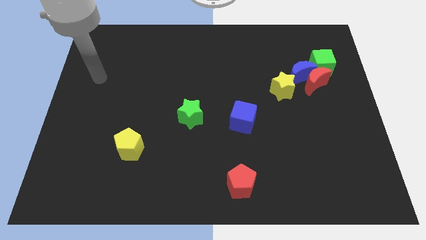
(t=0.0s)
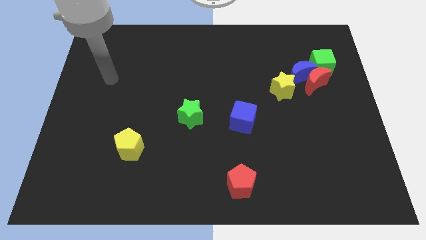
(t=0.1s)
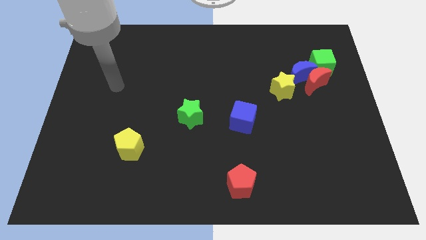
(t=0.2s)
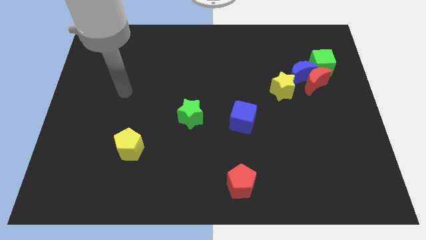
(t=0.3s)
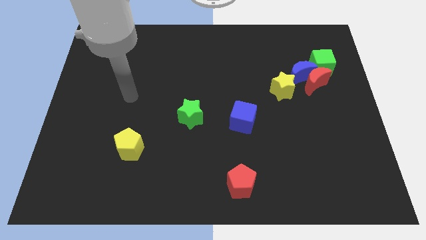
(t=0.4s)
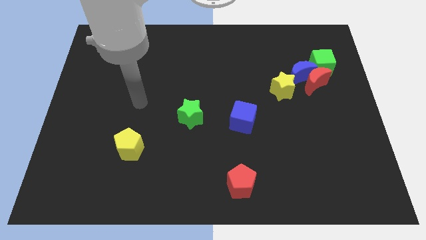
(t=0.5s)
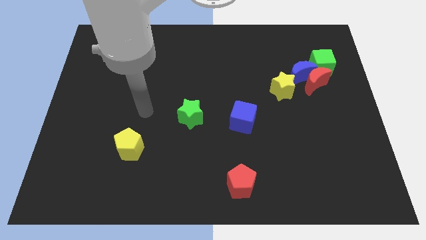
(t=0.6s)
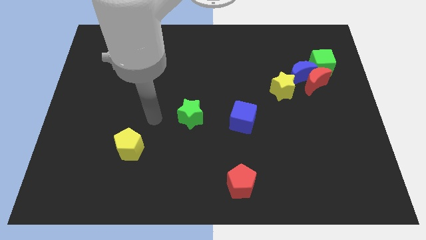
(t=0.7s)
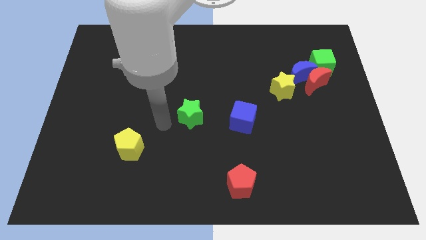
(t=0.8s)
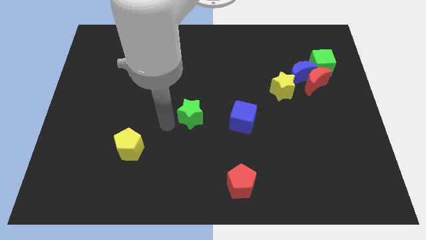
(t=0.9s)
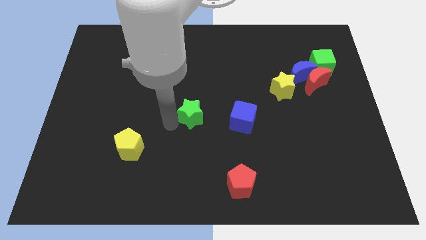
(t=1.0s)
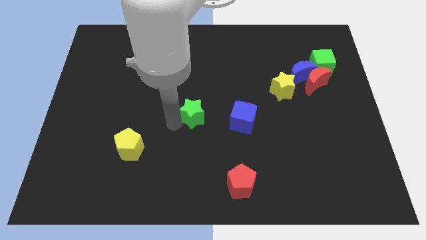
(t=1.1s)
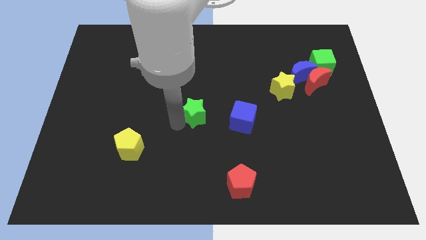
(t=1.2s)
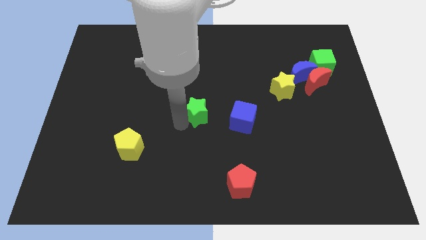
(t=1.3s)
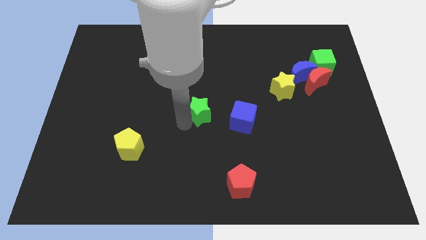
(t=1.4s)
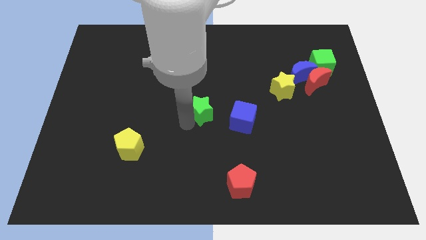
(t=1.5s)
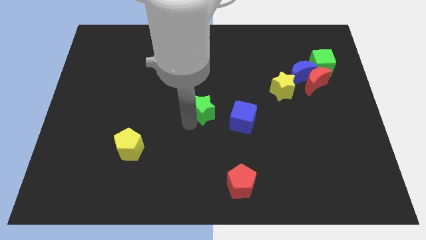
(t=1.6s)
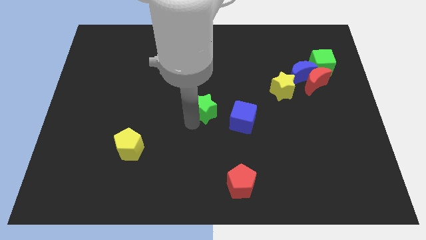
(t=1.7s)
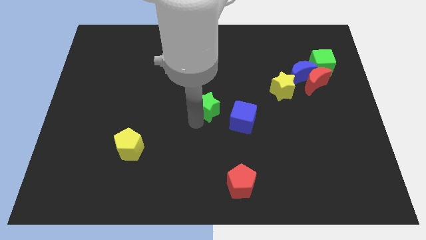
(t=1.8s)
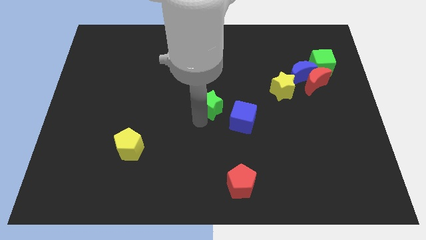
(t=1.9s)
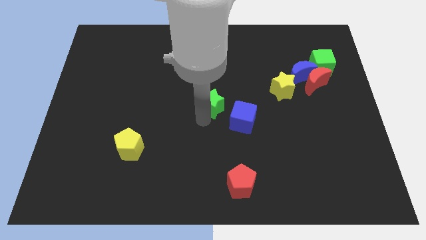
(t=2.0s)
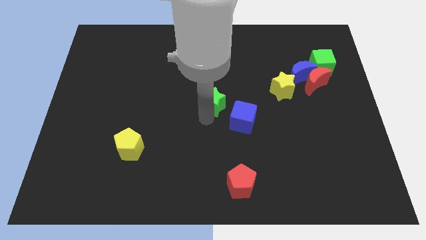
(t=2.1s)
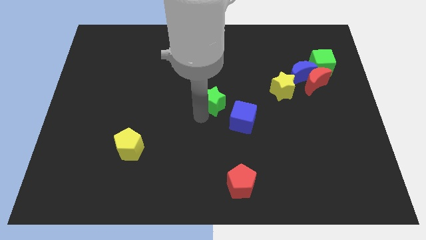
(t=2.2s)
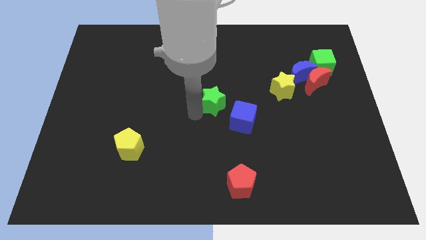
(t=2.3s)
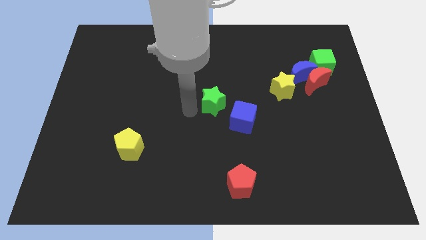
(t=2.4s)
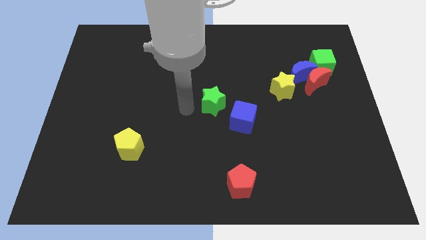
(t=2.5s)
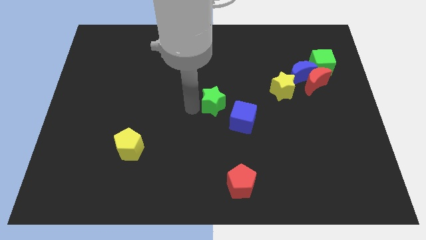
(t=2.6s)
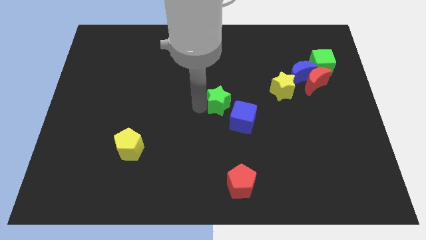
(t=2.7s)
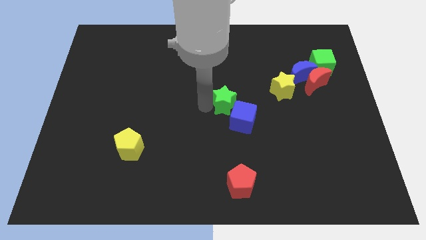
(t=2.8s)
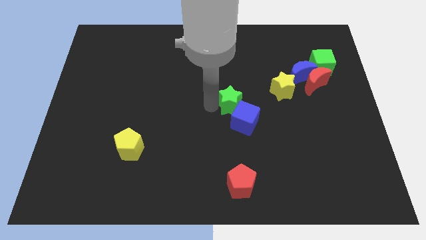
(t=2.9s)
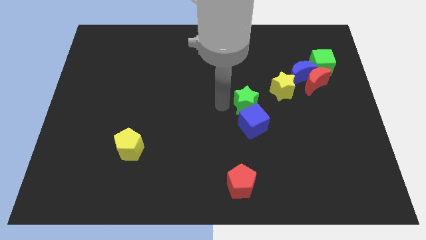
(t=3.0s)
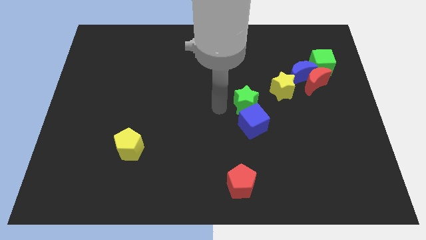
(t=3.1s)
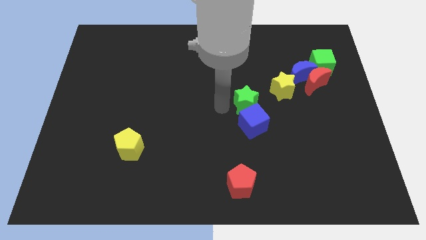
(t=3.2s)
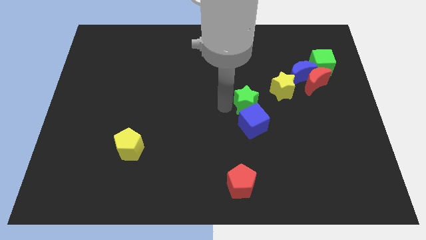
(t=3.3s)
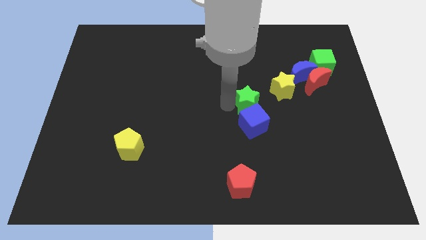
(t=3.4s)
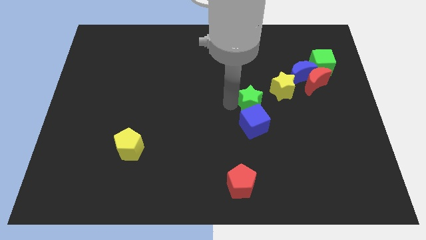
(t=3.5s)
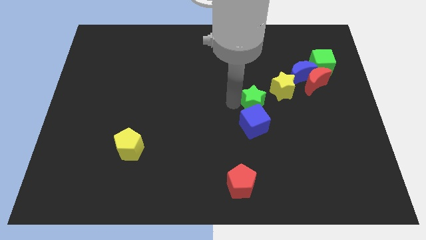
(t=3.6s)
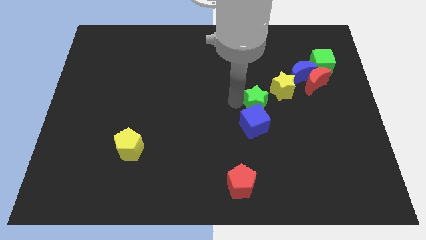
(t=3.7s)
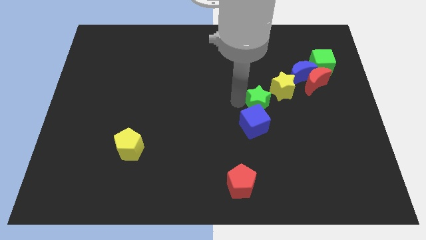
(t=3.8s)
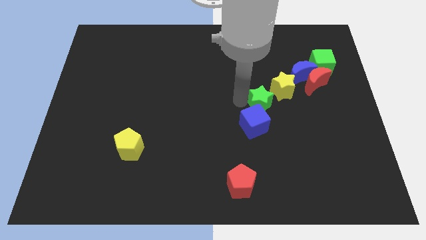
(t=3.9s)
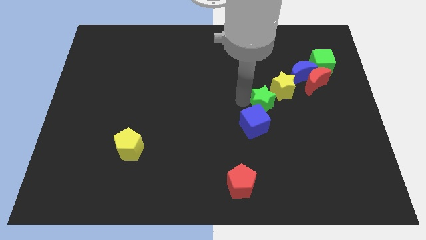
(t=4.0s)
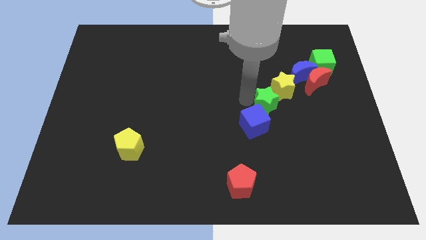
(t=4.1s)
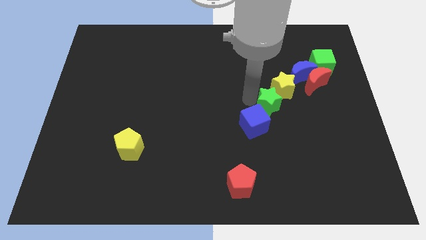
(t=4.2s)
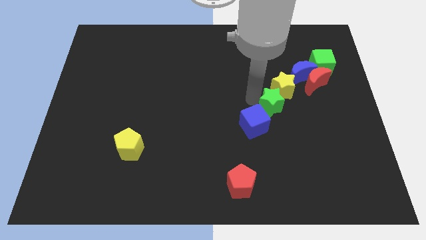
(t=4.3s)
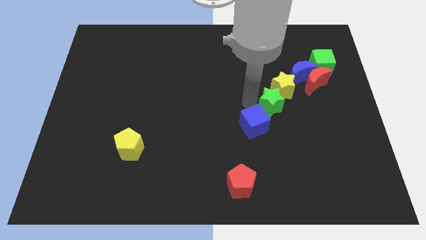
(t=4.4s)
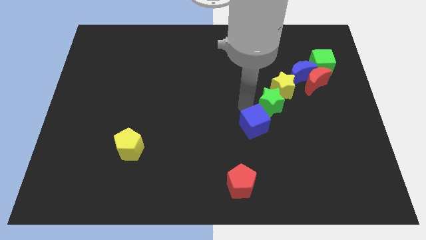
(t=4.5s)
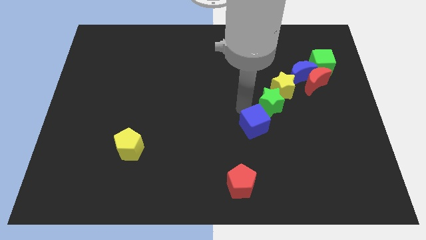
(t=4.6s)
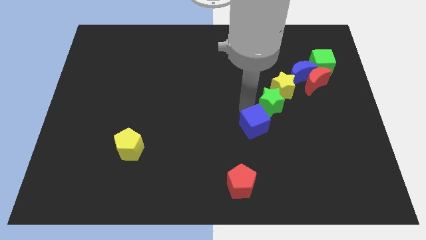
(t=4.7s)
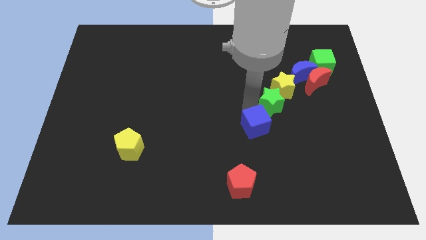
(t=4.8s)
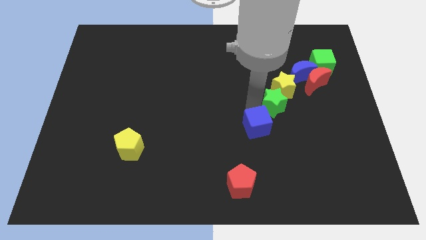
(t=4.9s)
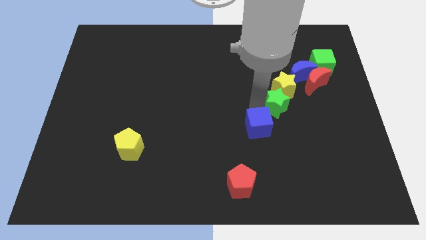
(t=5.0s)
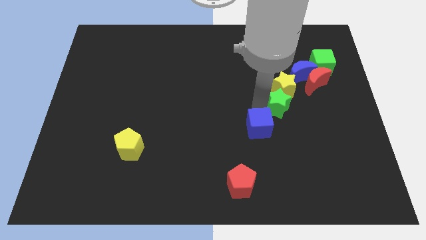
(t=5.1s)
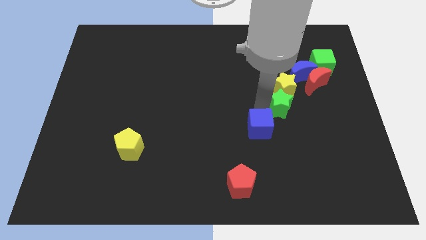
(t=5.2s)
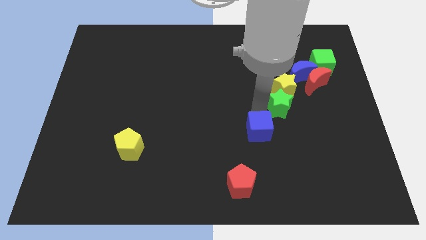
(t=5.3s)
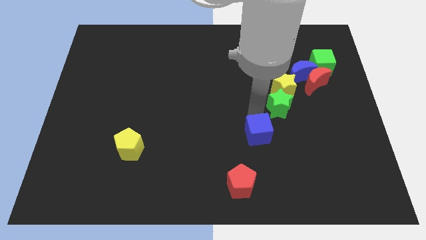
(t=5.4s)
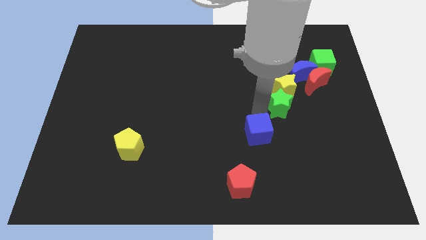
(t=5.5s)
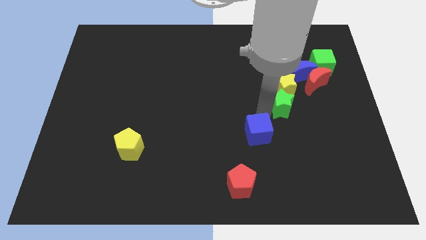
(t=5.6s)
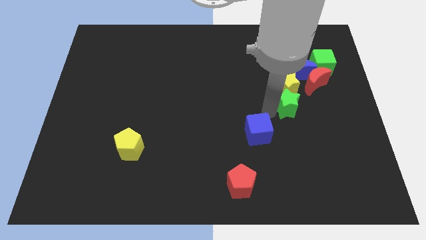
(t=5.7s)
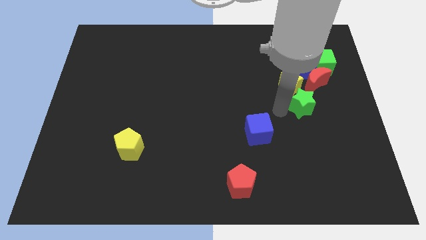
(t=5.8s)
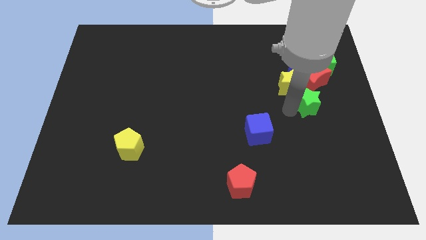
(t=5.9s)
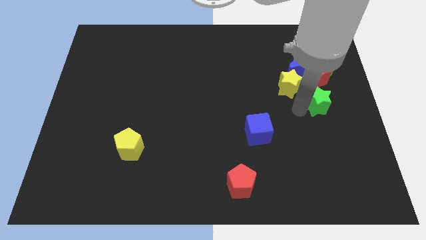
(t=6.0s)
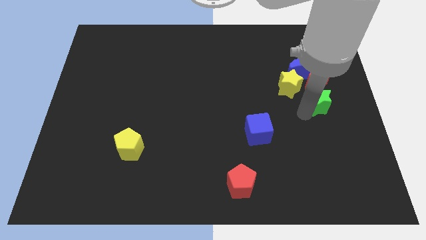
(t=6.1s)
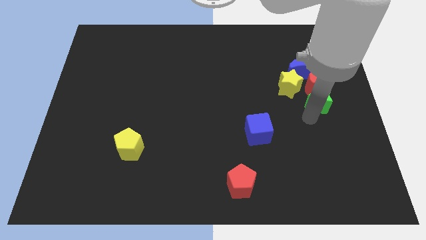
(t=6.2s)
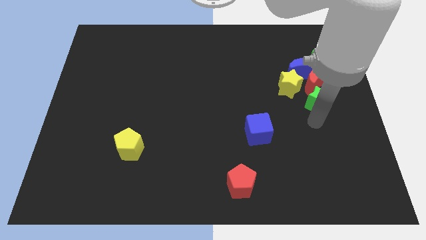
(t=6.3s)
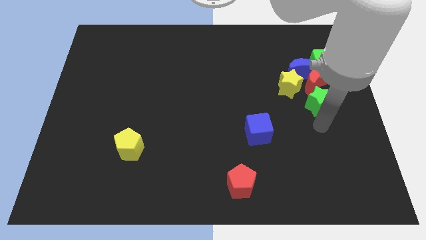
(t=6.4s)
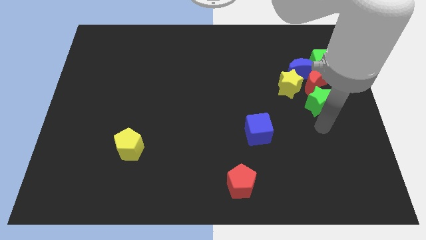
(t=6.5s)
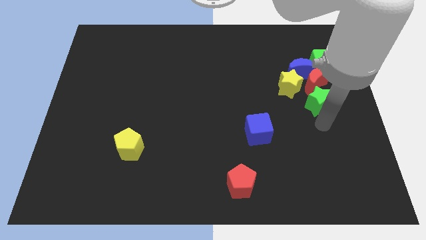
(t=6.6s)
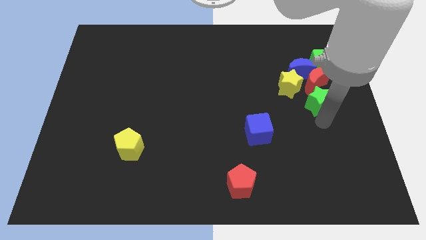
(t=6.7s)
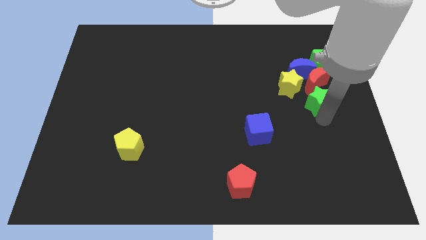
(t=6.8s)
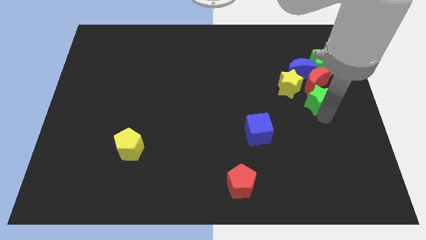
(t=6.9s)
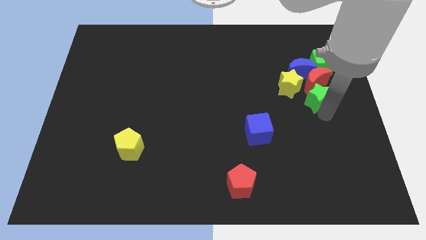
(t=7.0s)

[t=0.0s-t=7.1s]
move the green star next to the red moon
